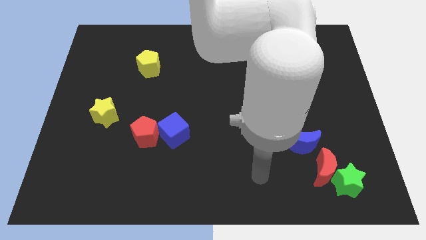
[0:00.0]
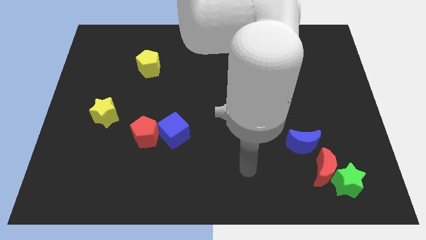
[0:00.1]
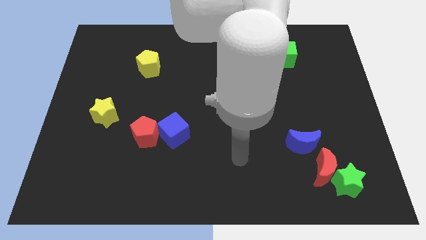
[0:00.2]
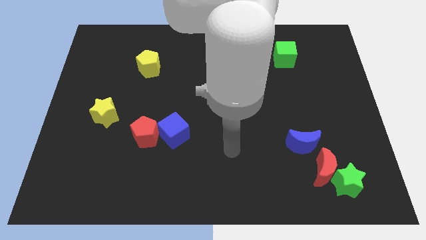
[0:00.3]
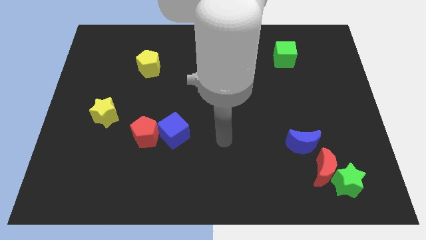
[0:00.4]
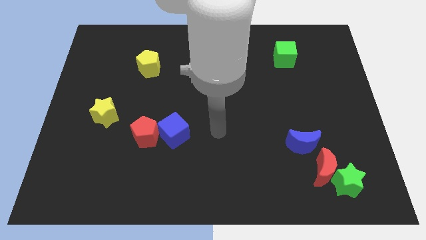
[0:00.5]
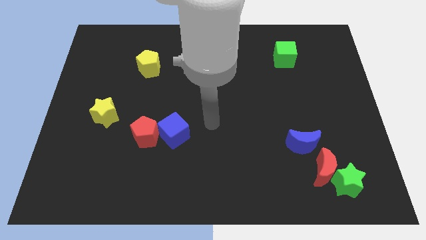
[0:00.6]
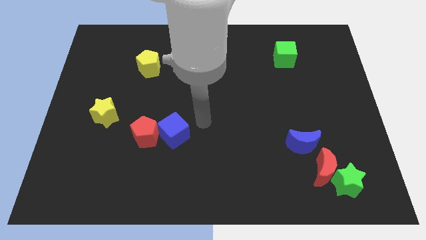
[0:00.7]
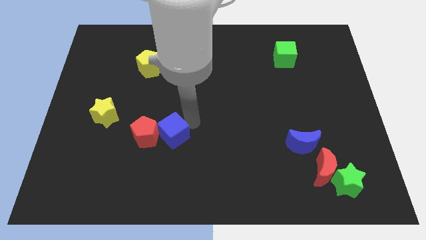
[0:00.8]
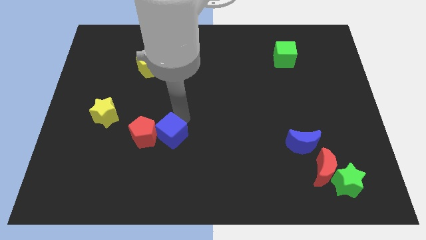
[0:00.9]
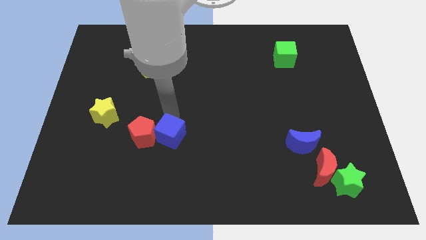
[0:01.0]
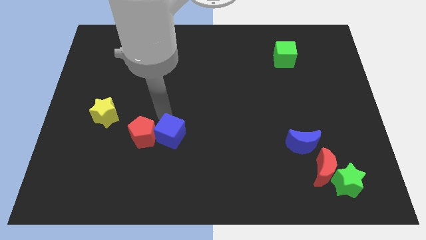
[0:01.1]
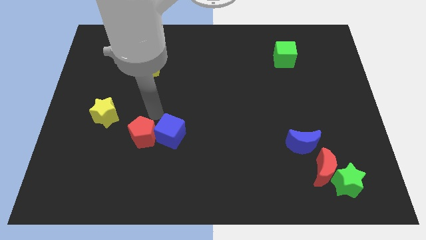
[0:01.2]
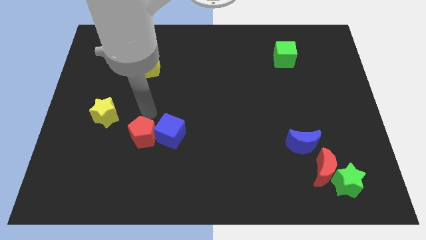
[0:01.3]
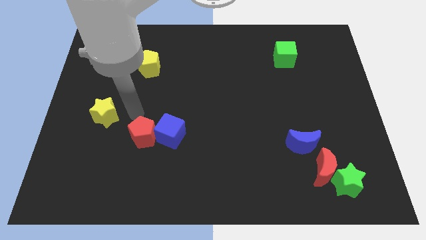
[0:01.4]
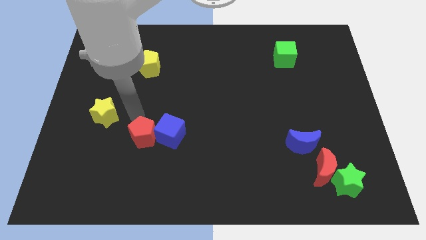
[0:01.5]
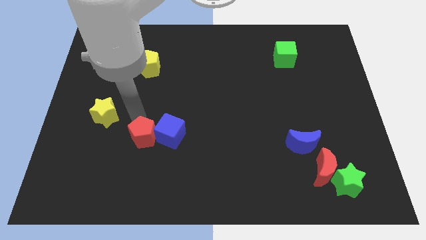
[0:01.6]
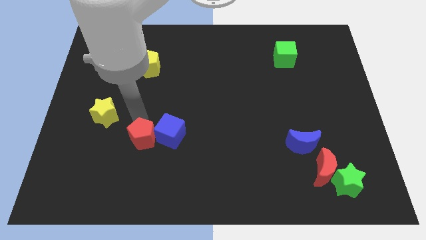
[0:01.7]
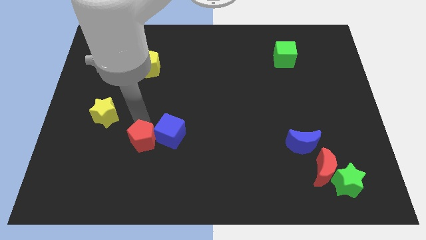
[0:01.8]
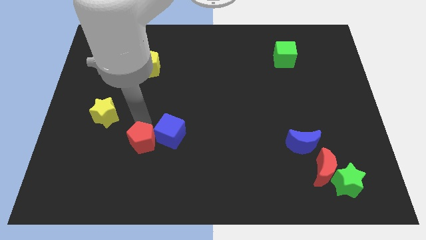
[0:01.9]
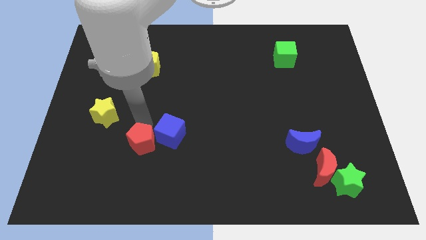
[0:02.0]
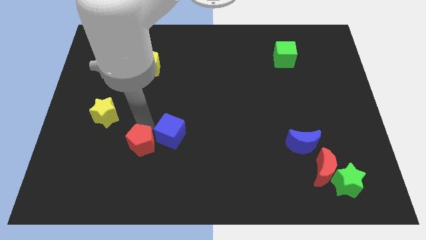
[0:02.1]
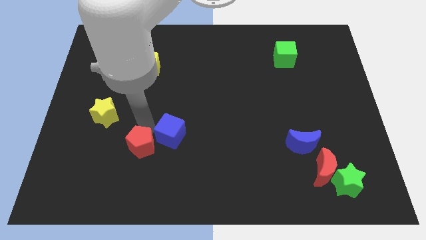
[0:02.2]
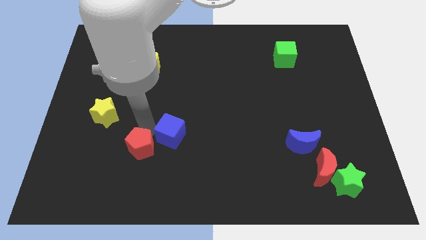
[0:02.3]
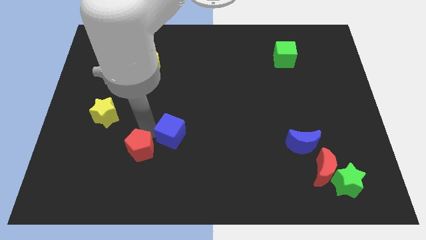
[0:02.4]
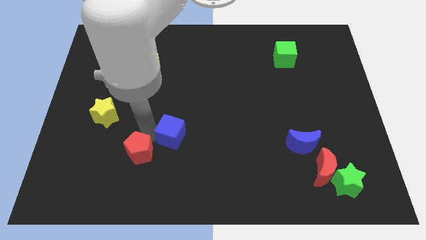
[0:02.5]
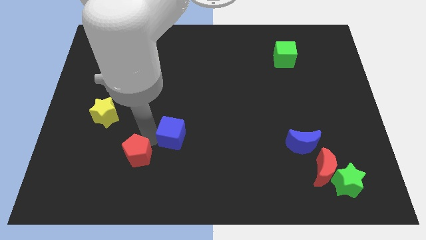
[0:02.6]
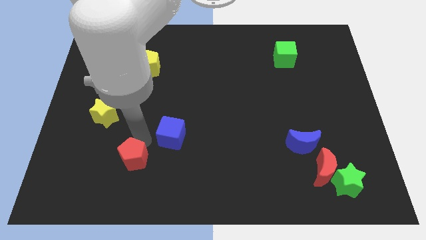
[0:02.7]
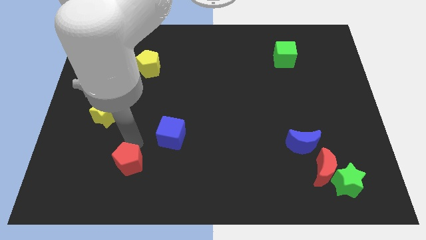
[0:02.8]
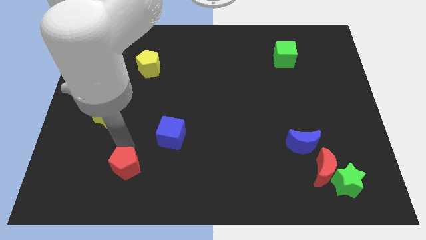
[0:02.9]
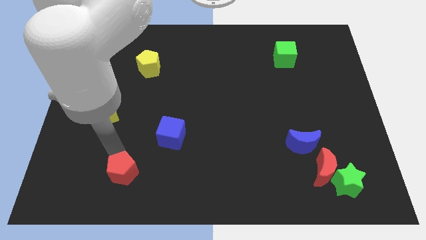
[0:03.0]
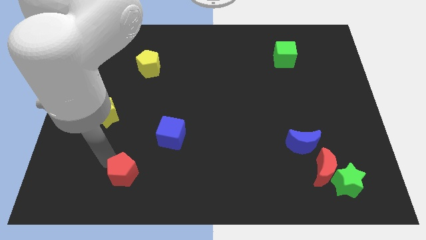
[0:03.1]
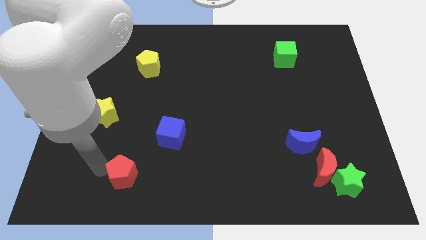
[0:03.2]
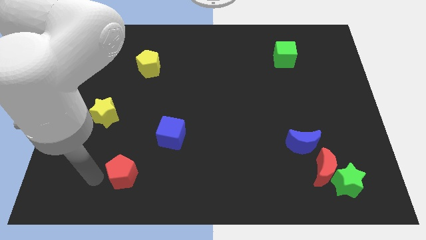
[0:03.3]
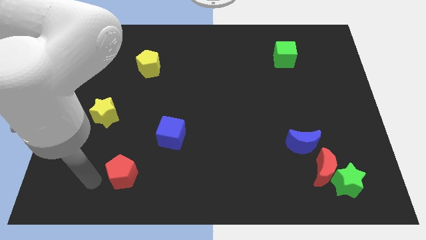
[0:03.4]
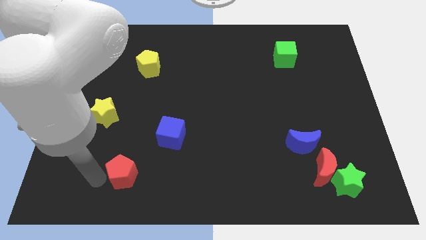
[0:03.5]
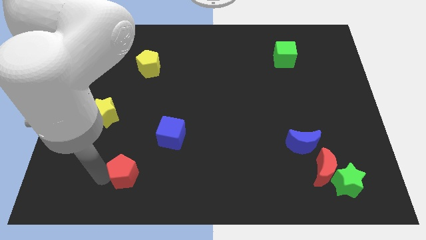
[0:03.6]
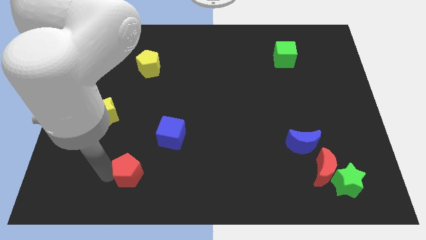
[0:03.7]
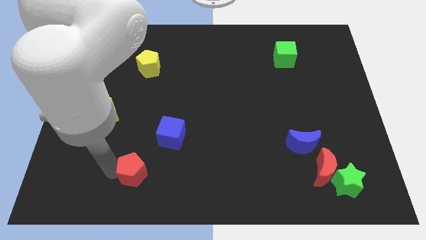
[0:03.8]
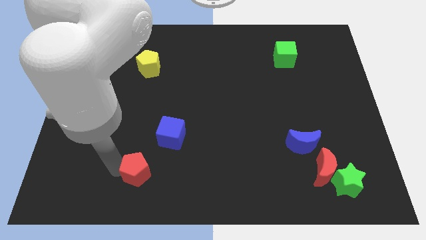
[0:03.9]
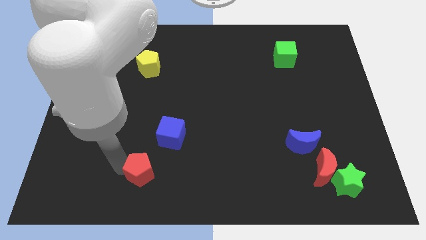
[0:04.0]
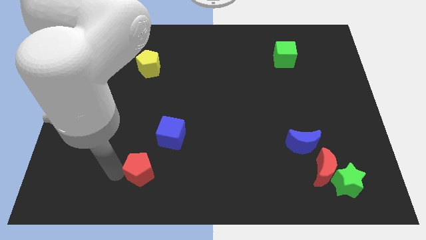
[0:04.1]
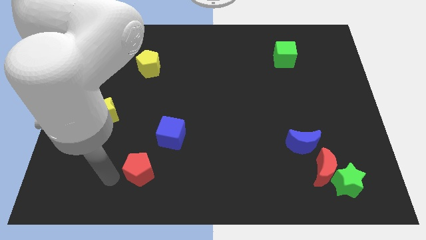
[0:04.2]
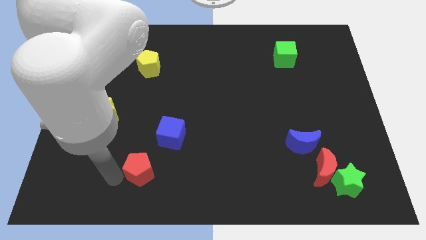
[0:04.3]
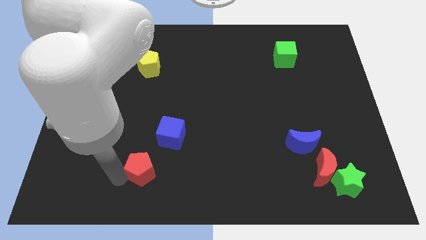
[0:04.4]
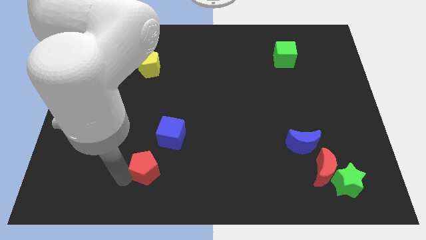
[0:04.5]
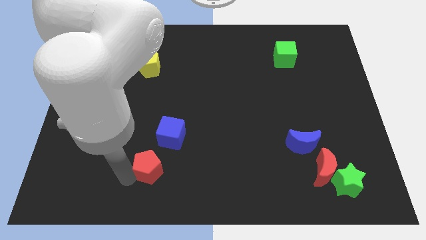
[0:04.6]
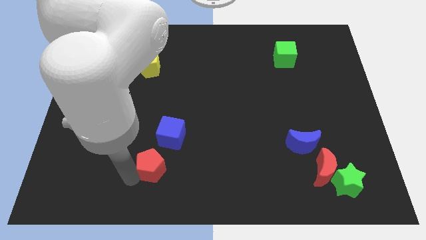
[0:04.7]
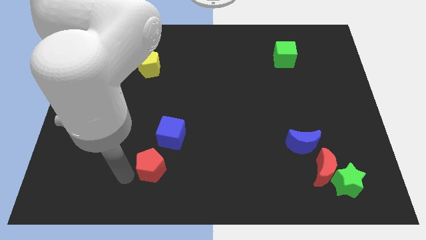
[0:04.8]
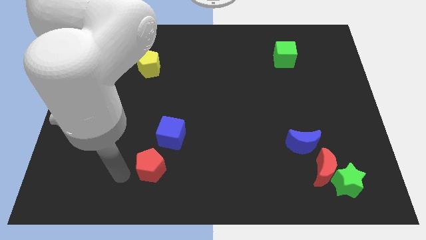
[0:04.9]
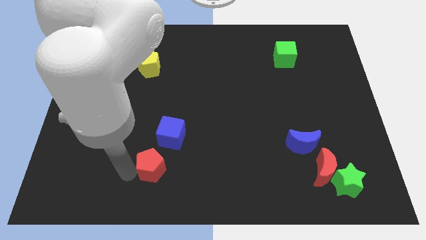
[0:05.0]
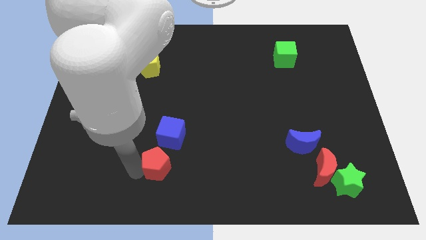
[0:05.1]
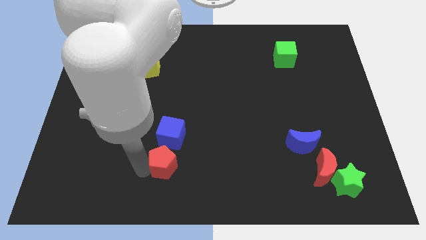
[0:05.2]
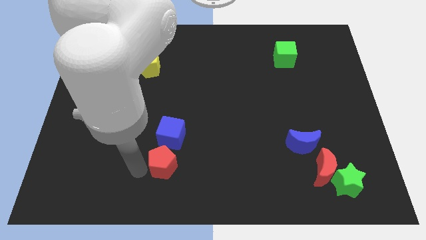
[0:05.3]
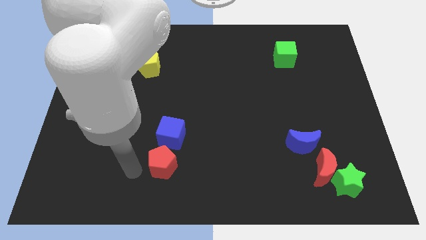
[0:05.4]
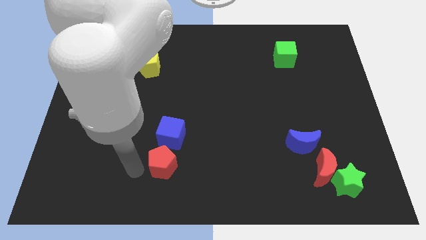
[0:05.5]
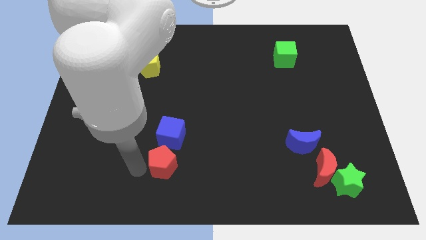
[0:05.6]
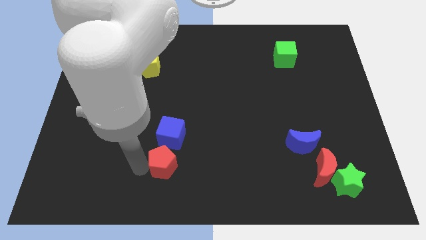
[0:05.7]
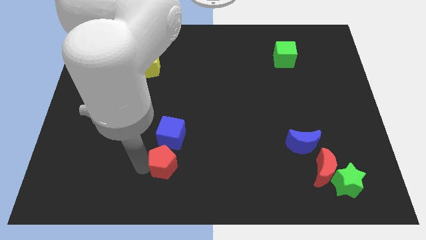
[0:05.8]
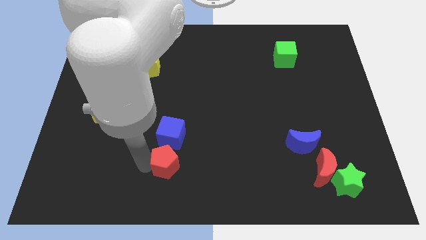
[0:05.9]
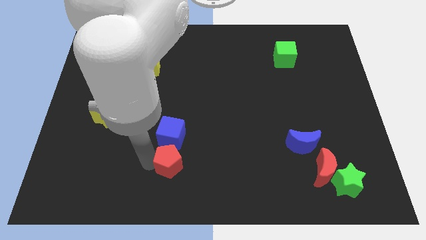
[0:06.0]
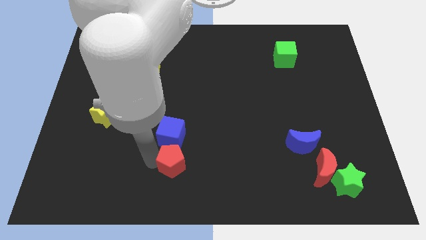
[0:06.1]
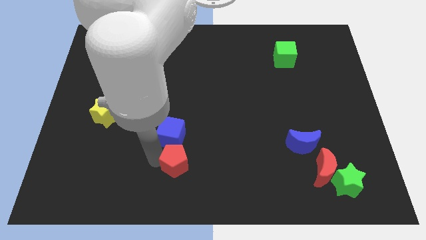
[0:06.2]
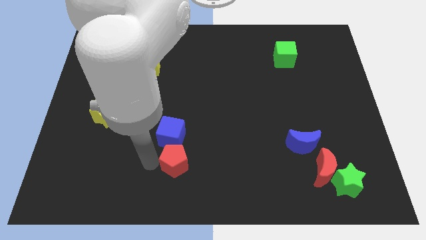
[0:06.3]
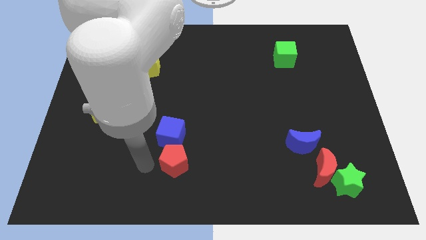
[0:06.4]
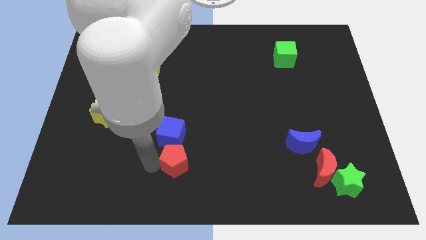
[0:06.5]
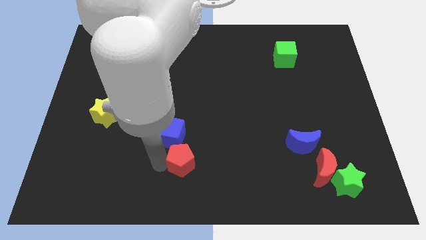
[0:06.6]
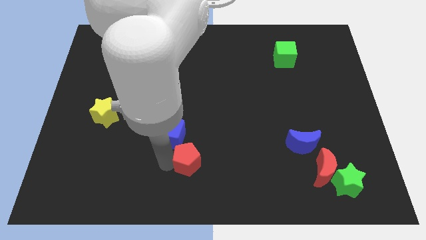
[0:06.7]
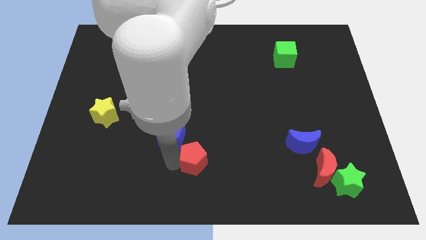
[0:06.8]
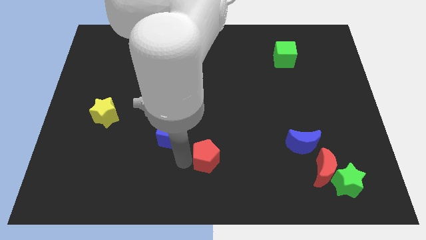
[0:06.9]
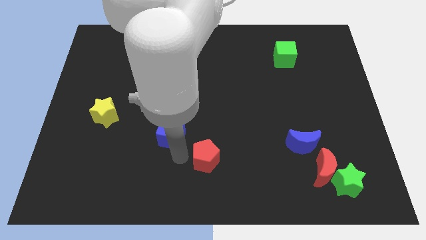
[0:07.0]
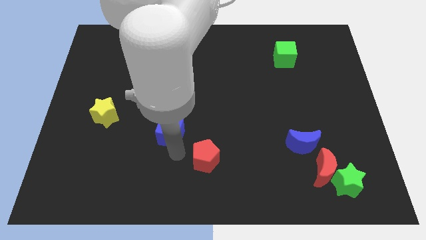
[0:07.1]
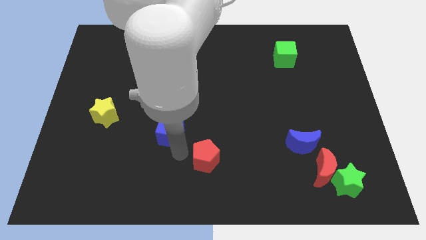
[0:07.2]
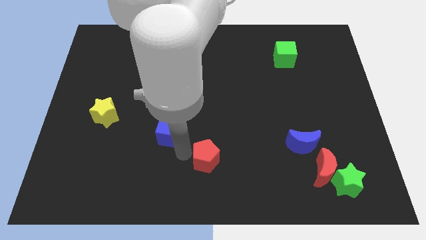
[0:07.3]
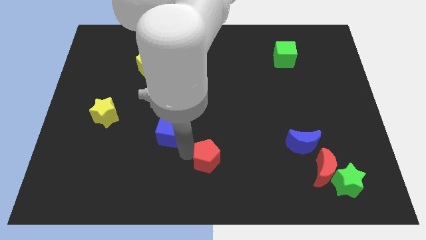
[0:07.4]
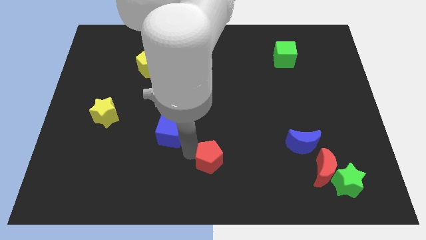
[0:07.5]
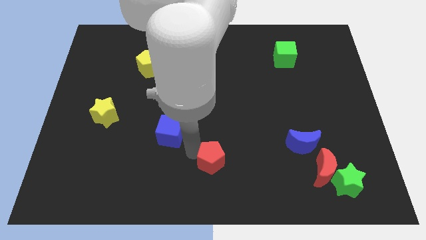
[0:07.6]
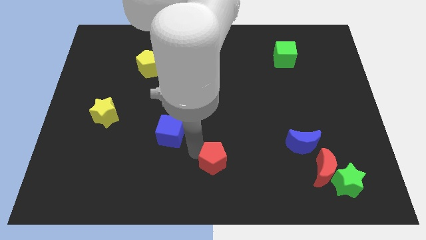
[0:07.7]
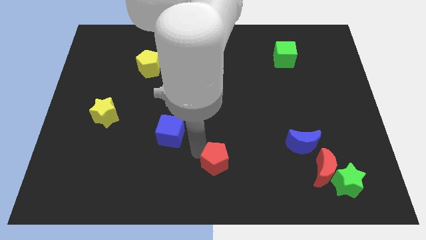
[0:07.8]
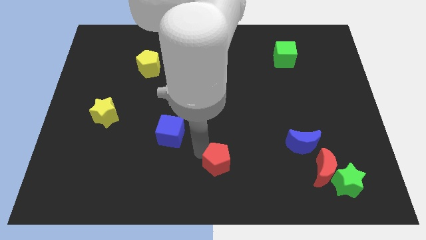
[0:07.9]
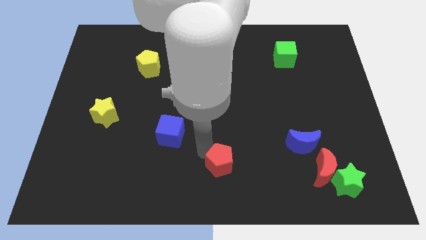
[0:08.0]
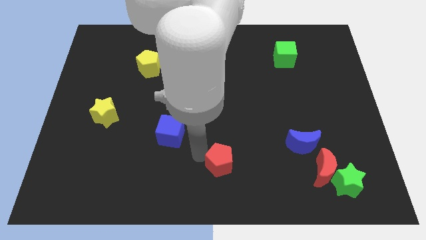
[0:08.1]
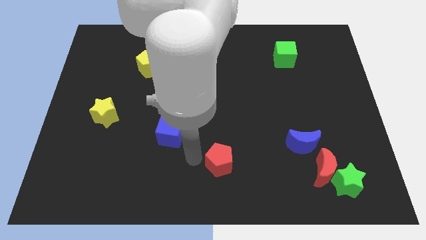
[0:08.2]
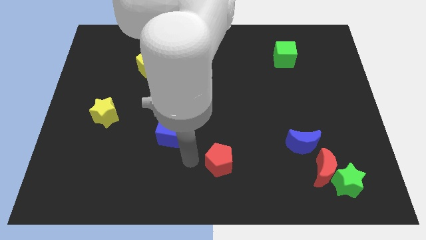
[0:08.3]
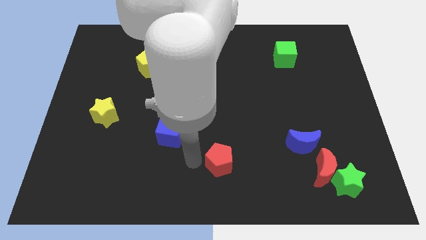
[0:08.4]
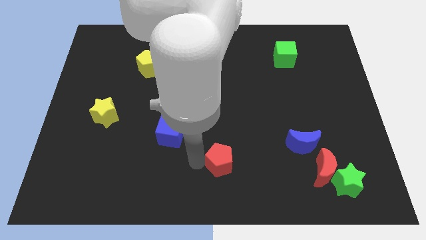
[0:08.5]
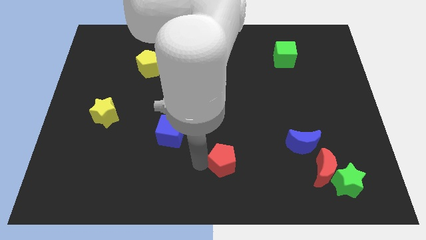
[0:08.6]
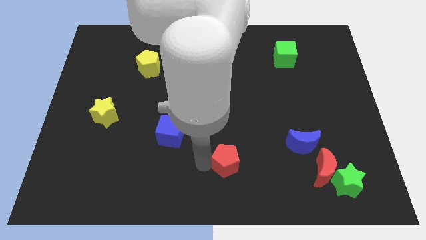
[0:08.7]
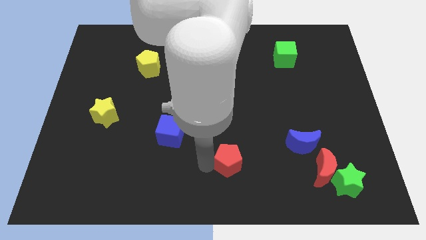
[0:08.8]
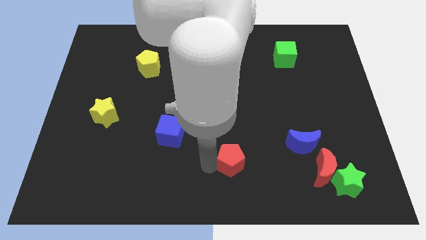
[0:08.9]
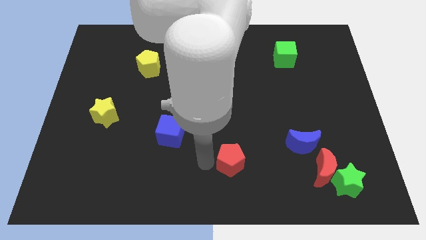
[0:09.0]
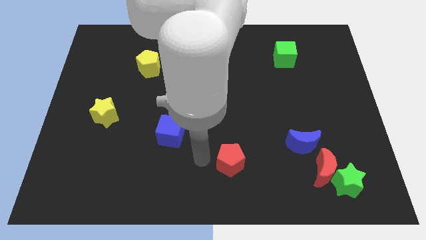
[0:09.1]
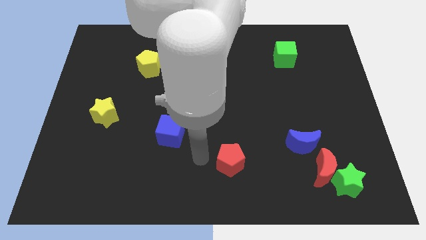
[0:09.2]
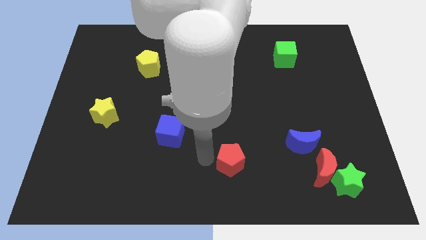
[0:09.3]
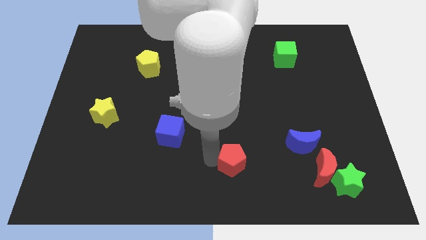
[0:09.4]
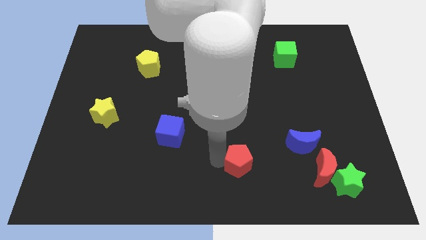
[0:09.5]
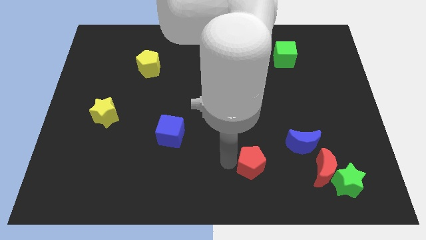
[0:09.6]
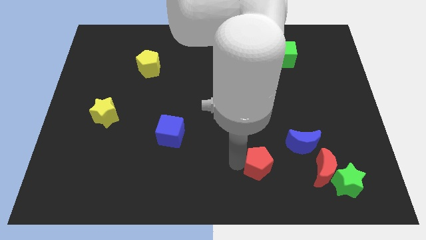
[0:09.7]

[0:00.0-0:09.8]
move the red pentagon diagonally down and to the left of the blue moon
